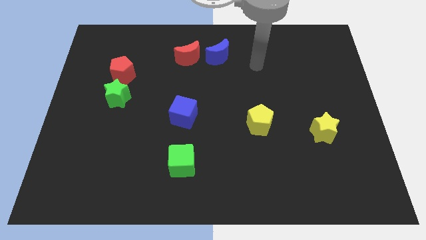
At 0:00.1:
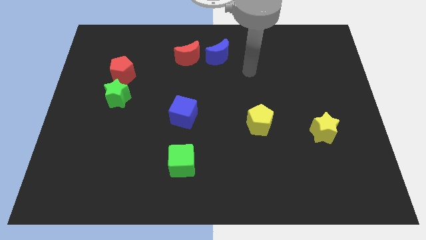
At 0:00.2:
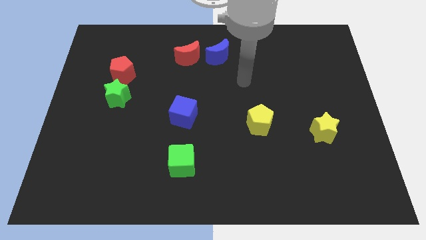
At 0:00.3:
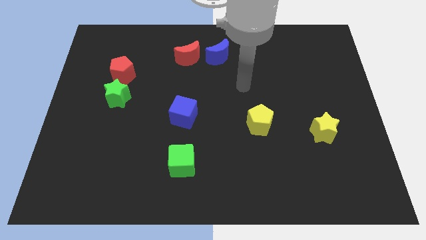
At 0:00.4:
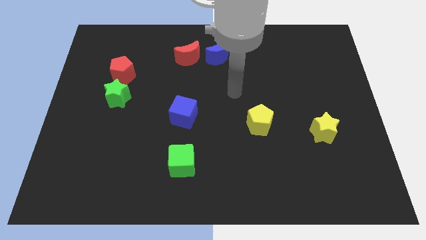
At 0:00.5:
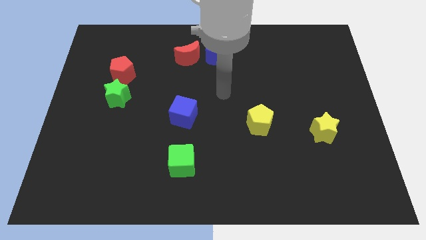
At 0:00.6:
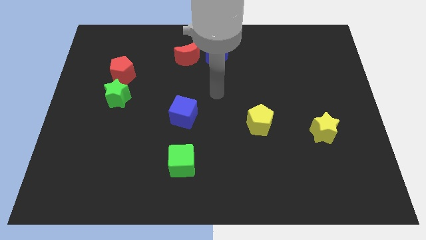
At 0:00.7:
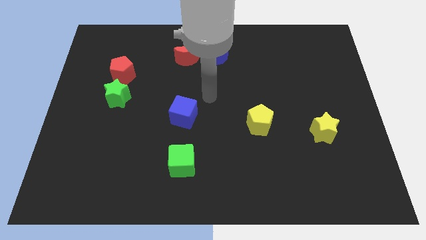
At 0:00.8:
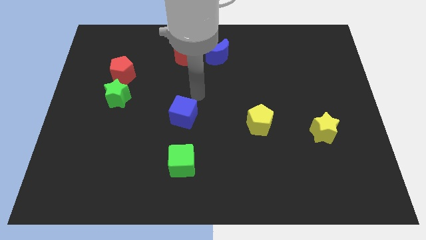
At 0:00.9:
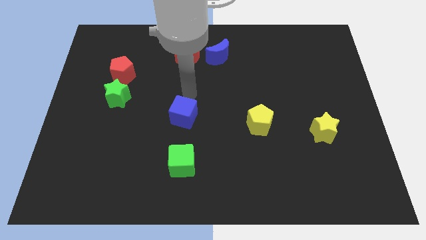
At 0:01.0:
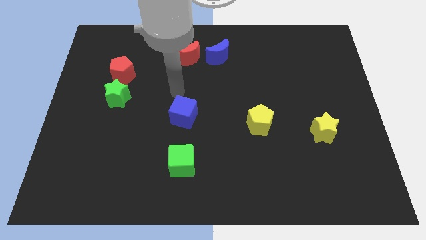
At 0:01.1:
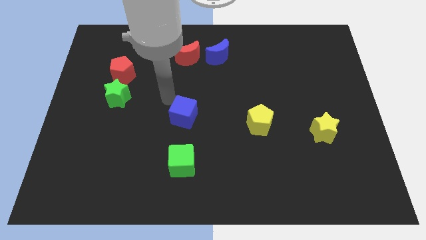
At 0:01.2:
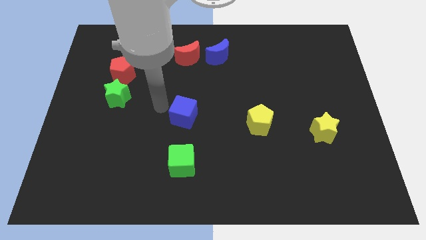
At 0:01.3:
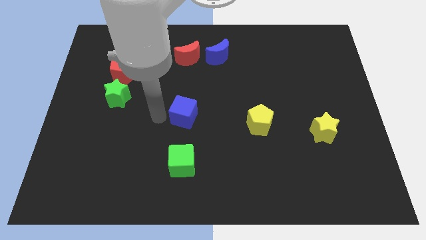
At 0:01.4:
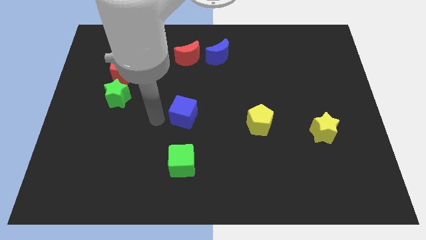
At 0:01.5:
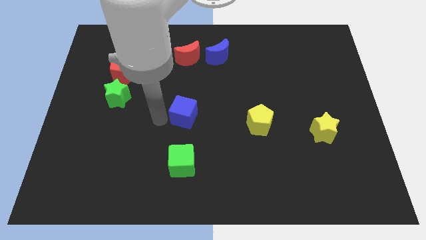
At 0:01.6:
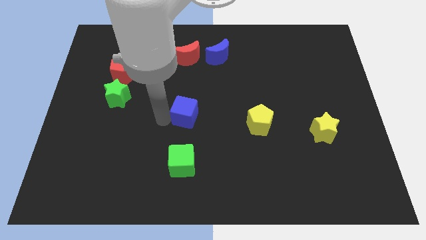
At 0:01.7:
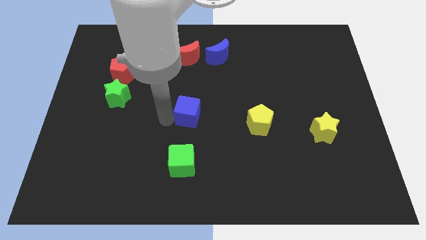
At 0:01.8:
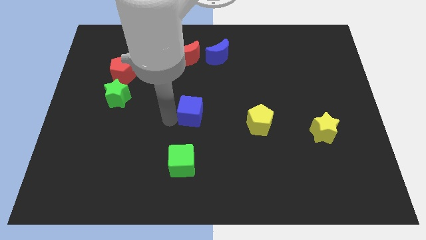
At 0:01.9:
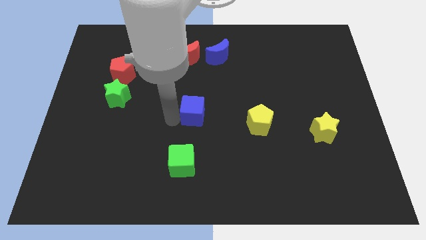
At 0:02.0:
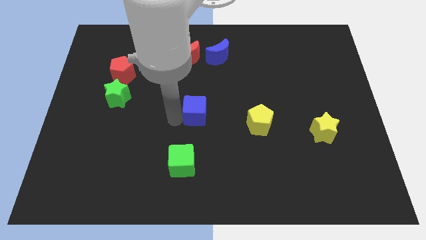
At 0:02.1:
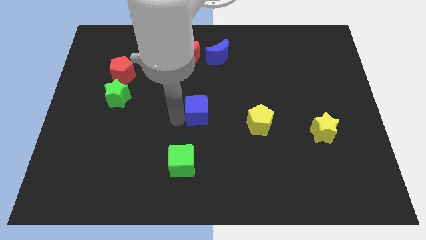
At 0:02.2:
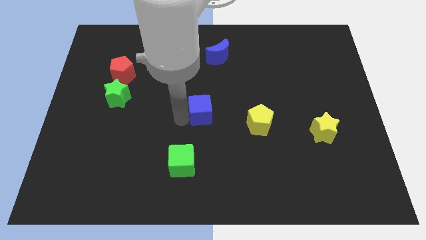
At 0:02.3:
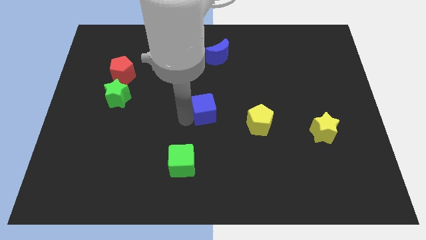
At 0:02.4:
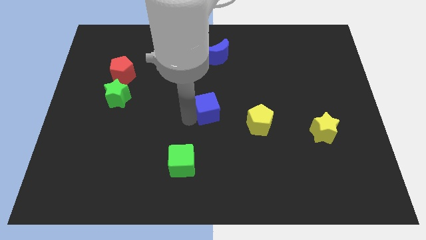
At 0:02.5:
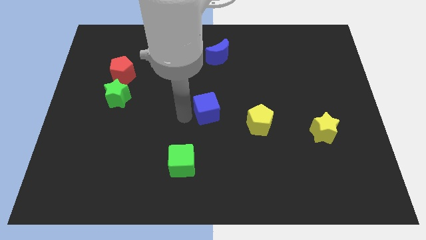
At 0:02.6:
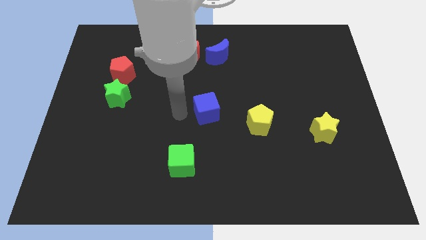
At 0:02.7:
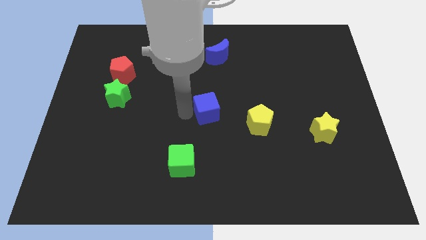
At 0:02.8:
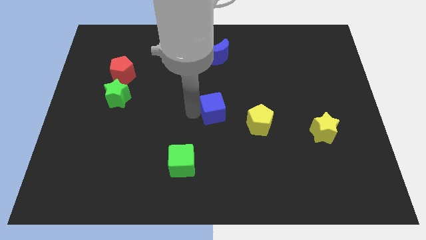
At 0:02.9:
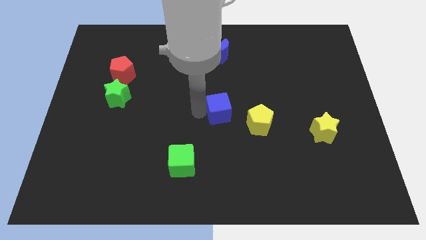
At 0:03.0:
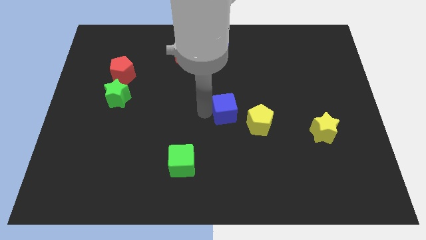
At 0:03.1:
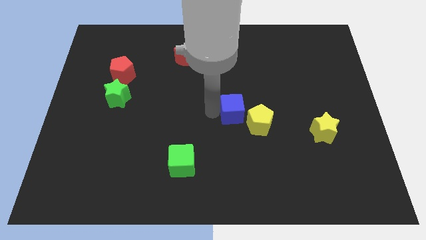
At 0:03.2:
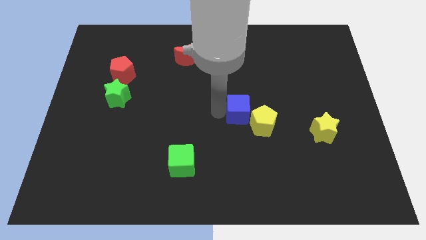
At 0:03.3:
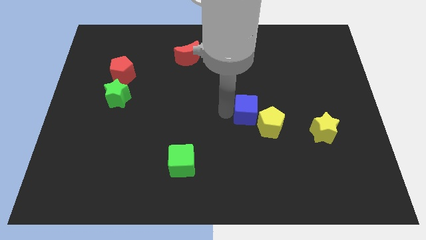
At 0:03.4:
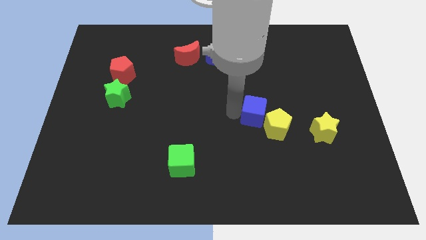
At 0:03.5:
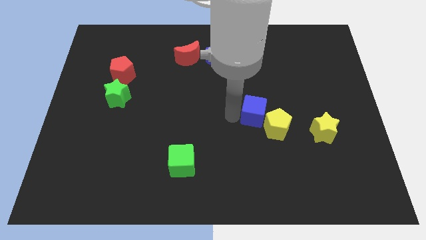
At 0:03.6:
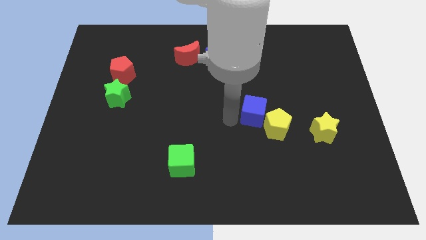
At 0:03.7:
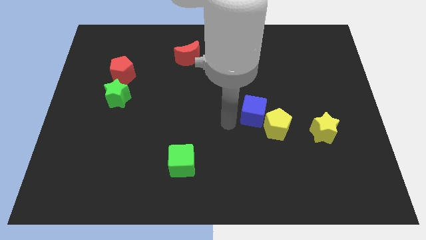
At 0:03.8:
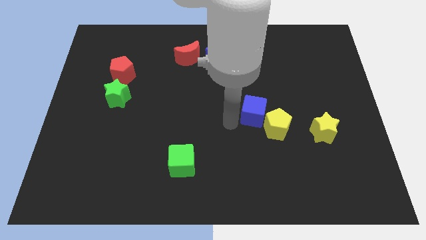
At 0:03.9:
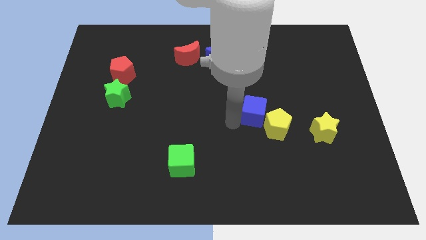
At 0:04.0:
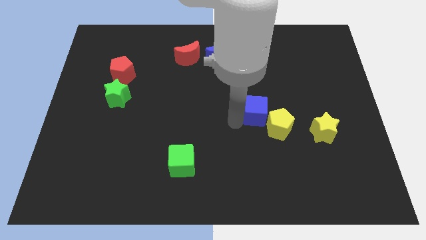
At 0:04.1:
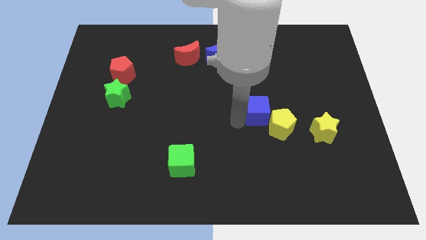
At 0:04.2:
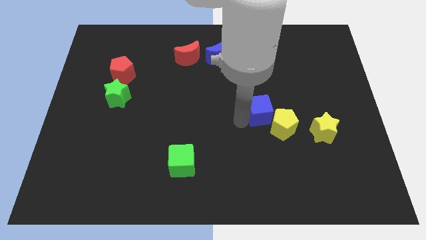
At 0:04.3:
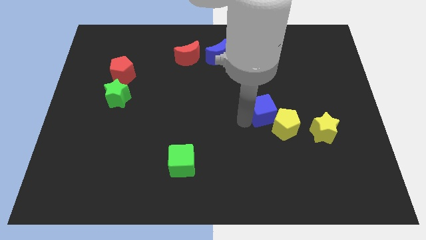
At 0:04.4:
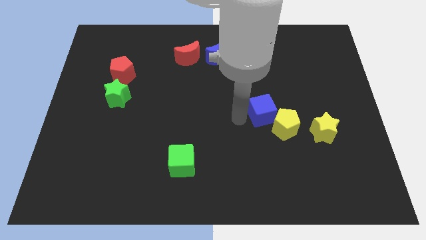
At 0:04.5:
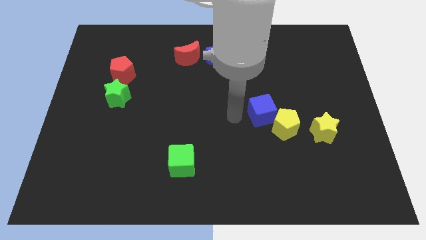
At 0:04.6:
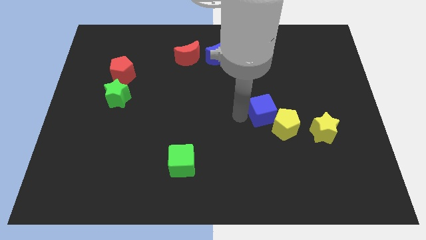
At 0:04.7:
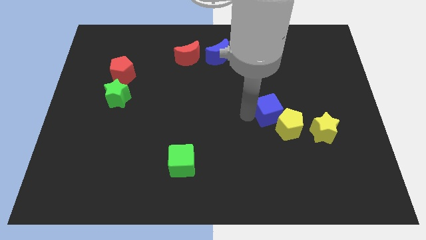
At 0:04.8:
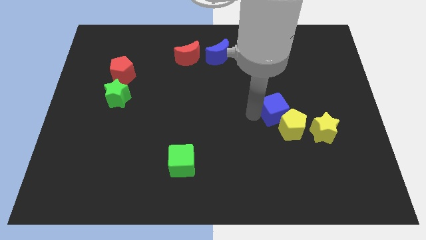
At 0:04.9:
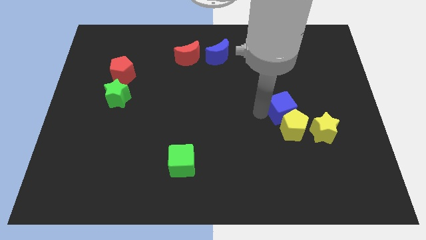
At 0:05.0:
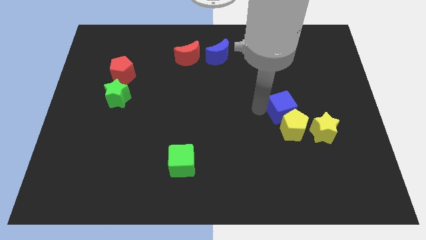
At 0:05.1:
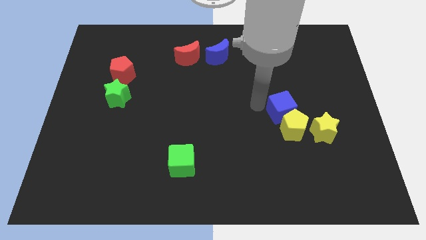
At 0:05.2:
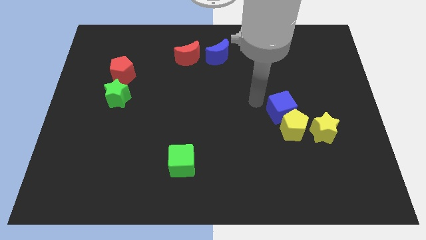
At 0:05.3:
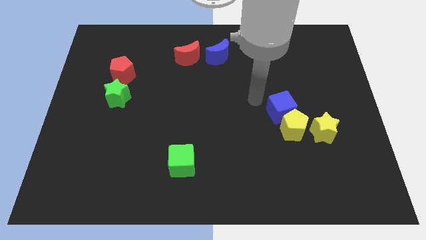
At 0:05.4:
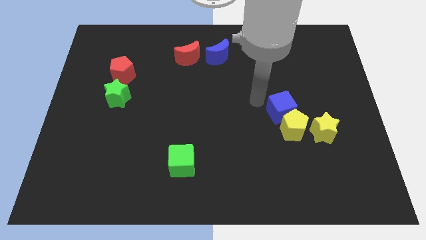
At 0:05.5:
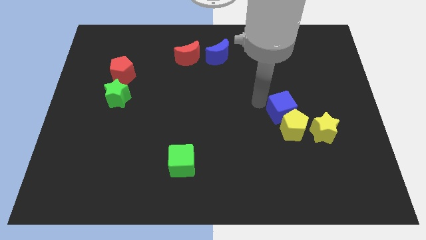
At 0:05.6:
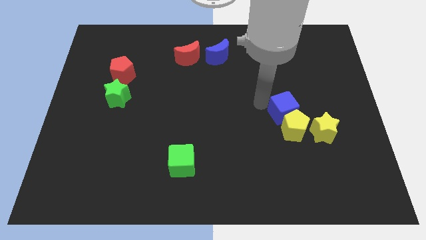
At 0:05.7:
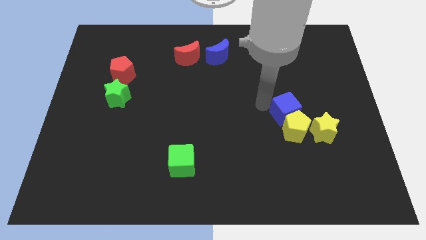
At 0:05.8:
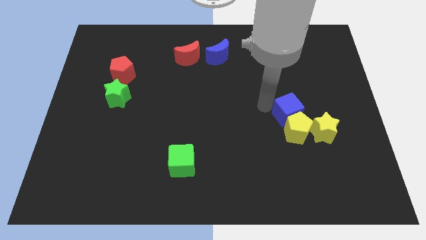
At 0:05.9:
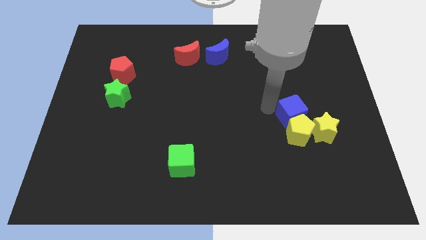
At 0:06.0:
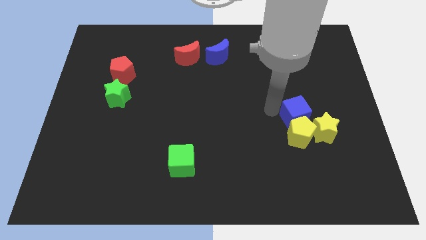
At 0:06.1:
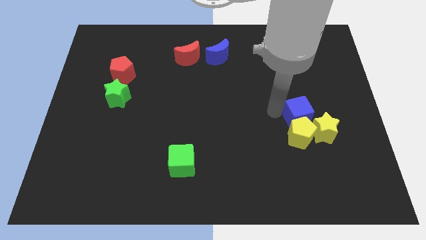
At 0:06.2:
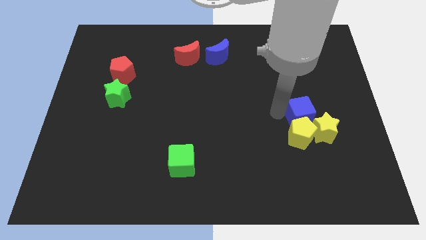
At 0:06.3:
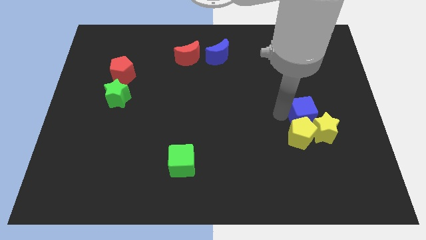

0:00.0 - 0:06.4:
push the blue cube to the yellow star

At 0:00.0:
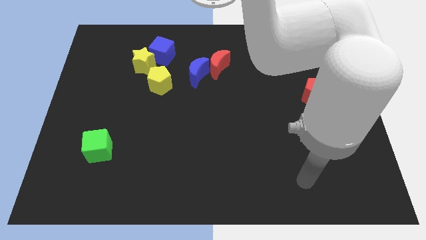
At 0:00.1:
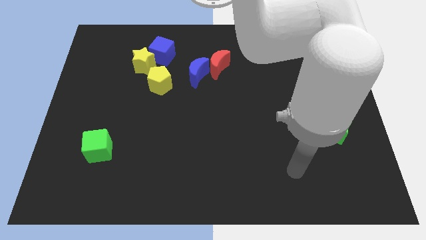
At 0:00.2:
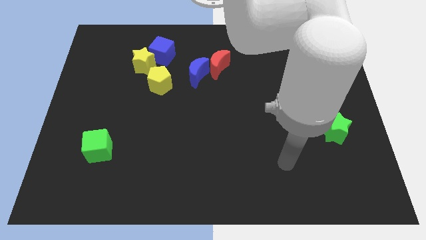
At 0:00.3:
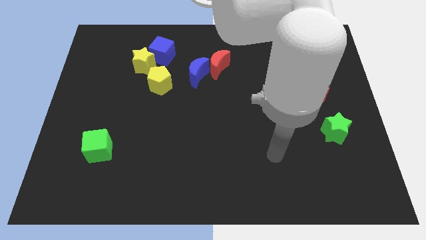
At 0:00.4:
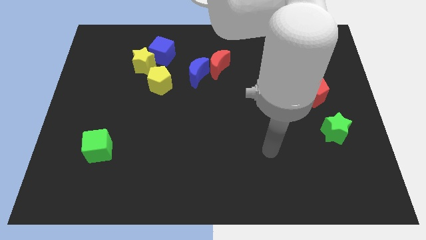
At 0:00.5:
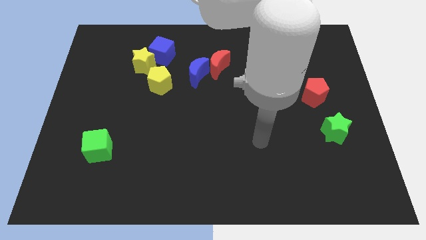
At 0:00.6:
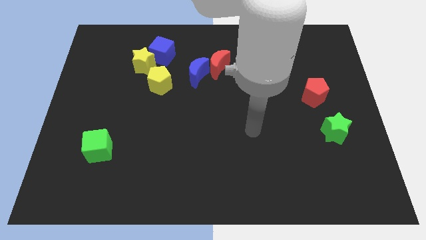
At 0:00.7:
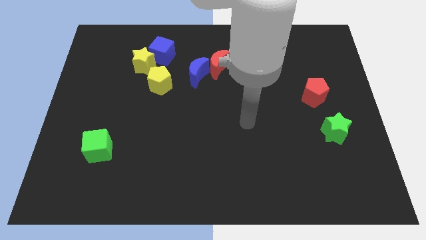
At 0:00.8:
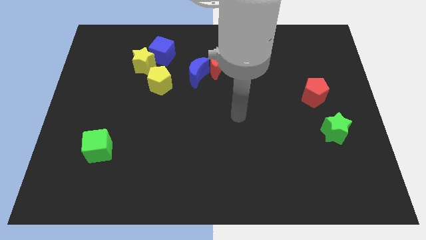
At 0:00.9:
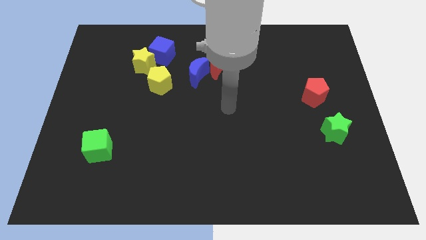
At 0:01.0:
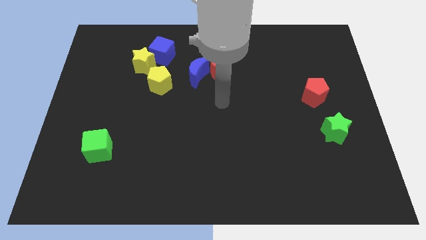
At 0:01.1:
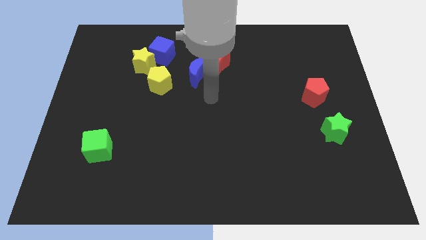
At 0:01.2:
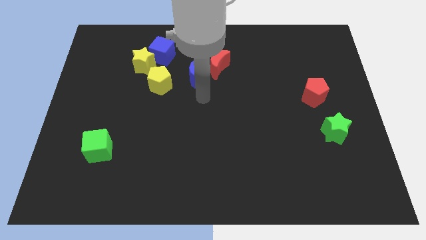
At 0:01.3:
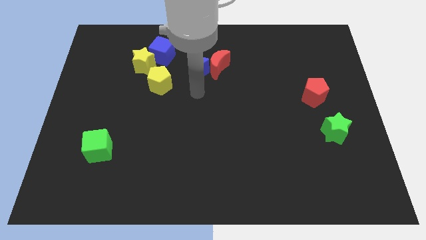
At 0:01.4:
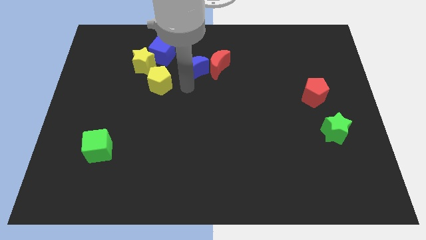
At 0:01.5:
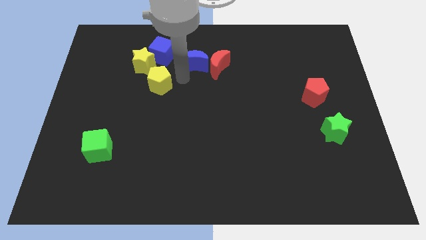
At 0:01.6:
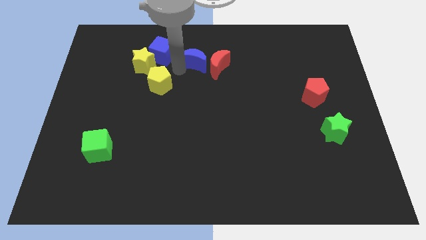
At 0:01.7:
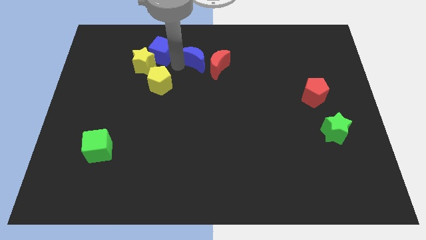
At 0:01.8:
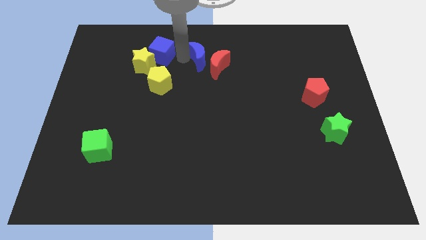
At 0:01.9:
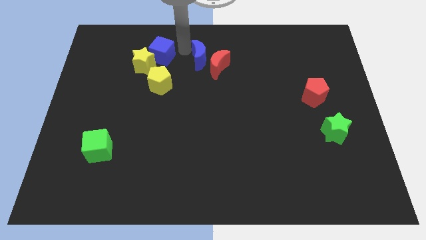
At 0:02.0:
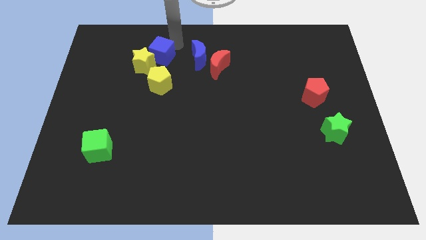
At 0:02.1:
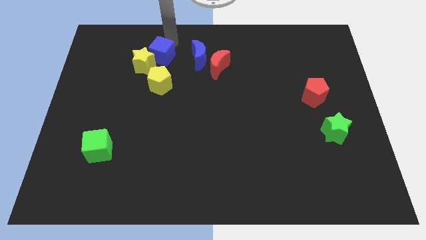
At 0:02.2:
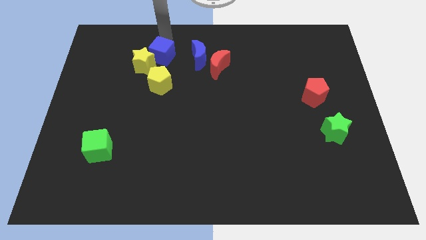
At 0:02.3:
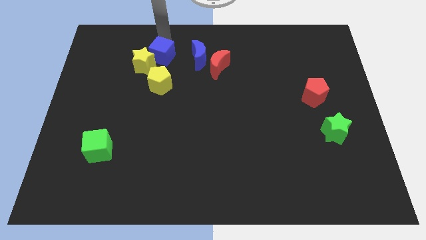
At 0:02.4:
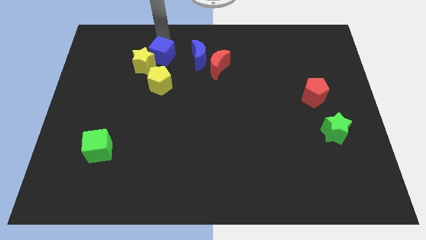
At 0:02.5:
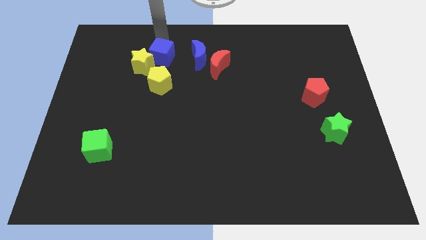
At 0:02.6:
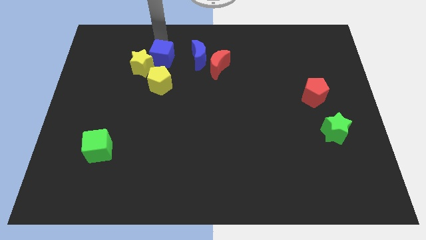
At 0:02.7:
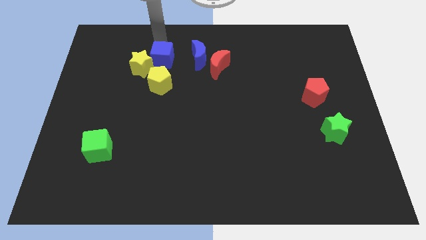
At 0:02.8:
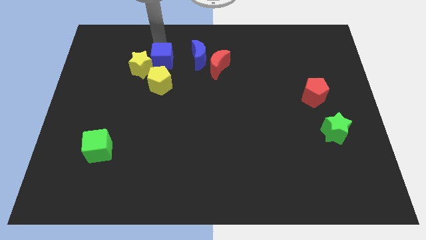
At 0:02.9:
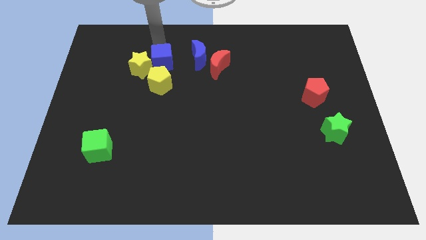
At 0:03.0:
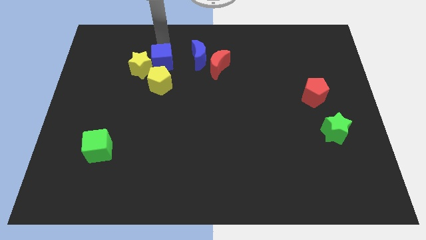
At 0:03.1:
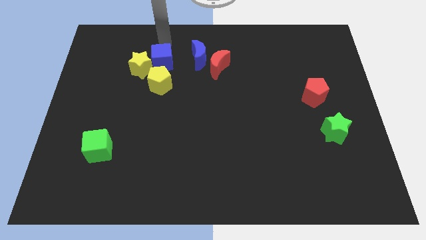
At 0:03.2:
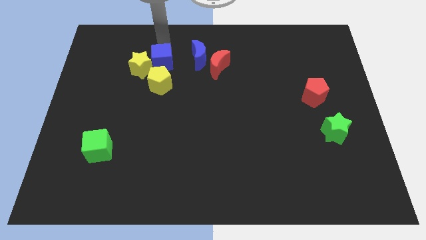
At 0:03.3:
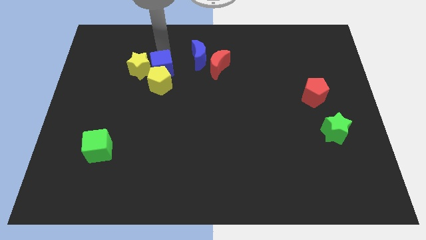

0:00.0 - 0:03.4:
put the blue cube next to the yellow pentagon
